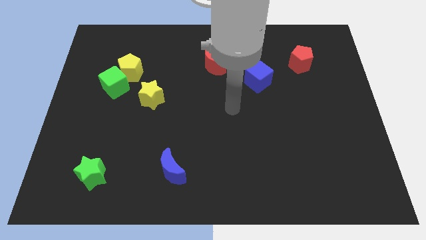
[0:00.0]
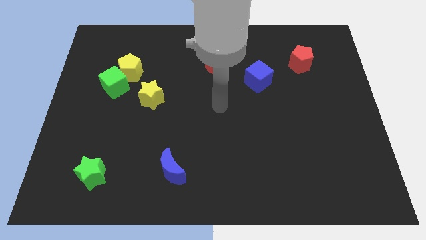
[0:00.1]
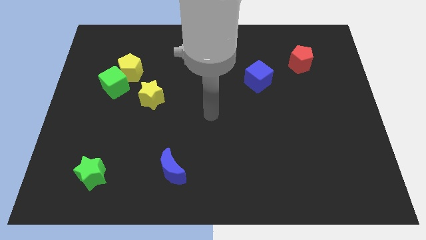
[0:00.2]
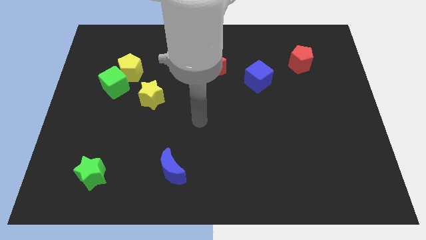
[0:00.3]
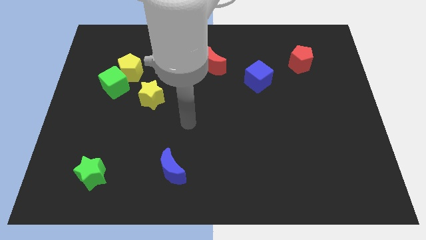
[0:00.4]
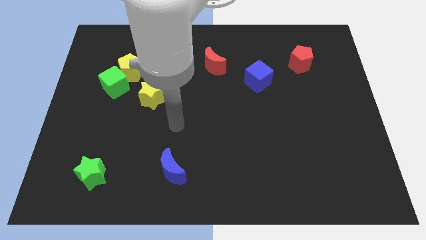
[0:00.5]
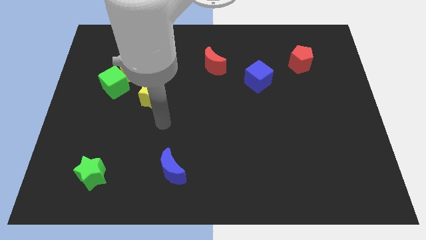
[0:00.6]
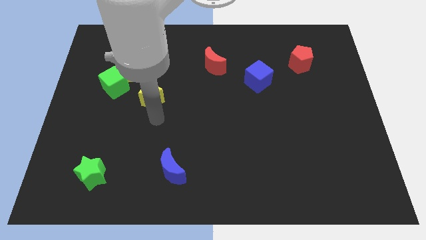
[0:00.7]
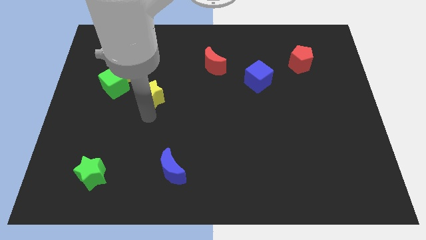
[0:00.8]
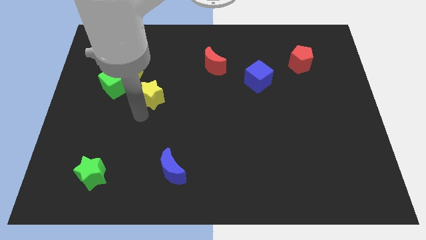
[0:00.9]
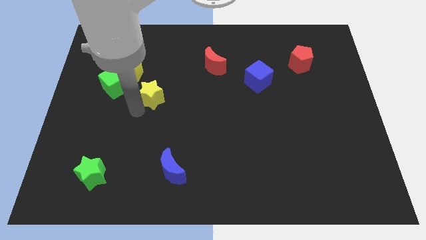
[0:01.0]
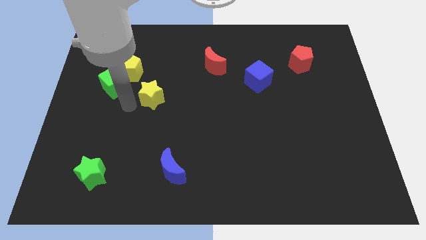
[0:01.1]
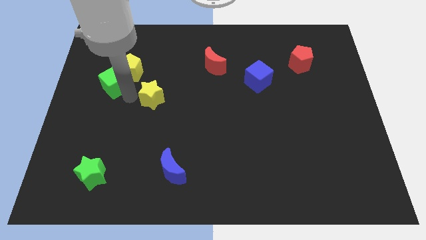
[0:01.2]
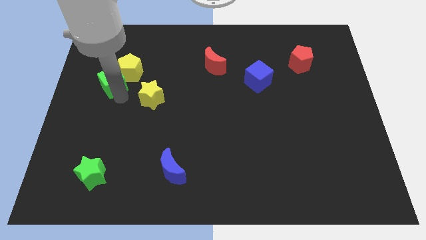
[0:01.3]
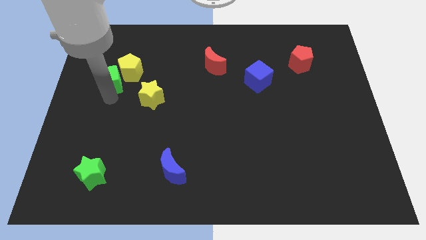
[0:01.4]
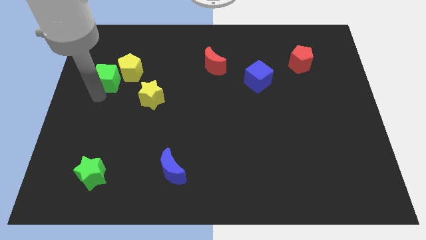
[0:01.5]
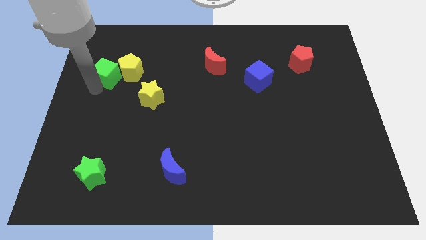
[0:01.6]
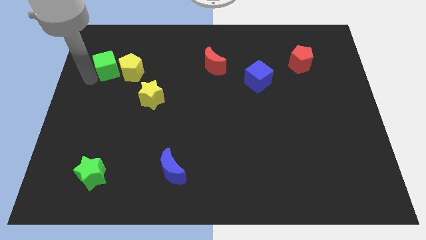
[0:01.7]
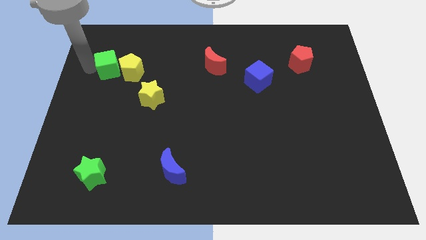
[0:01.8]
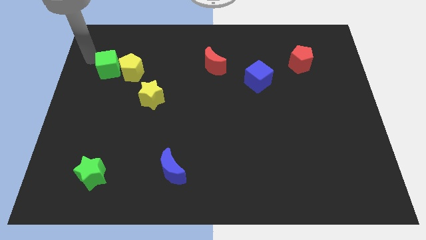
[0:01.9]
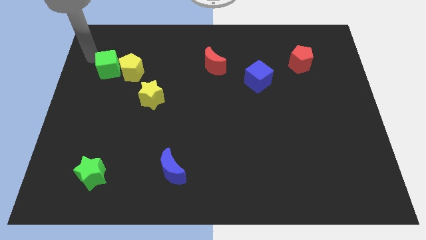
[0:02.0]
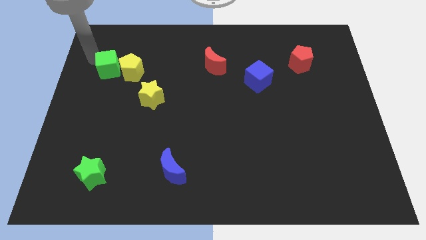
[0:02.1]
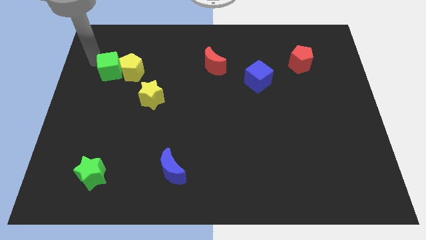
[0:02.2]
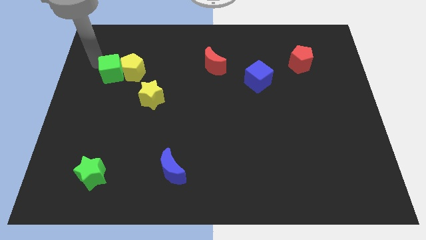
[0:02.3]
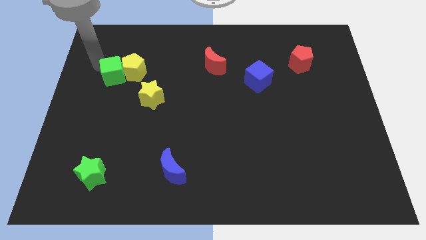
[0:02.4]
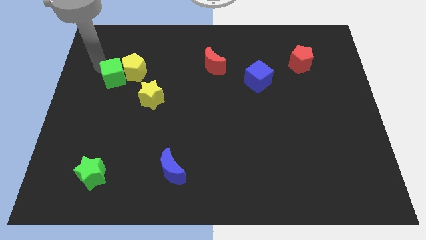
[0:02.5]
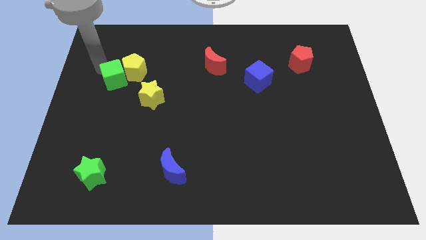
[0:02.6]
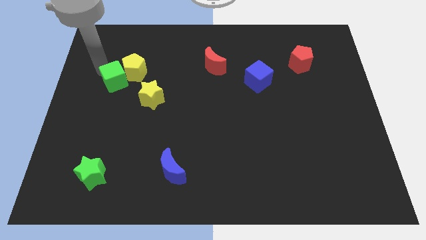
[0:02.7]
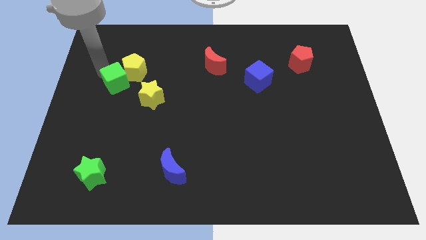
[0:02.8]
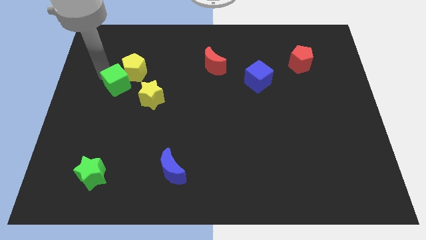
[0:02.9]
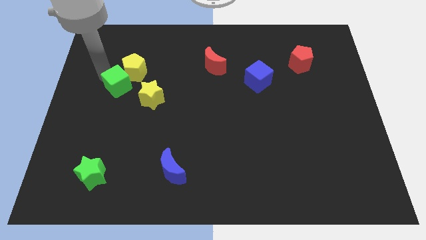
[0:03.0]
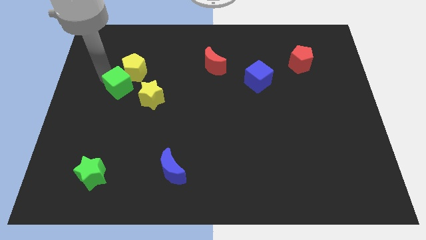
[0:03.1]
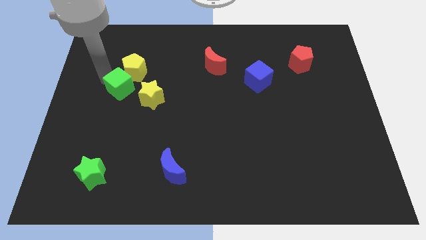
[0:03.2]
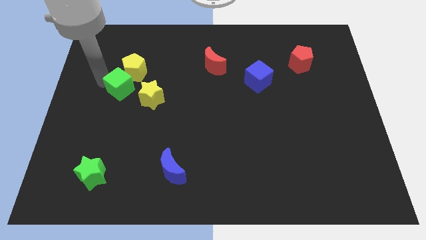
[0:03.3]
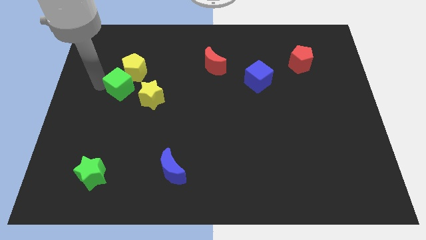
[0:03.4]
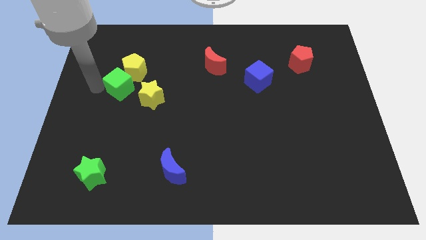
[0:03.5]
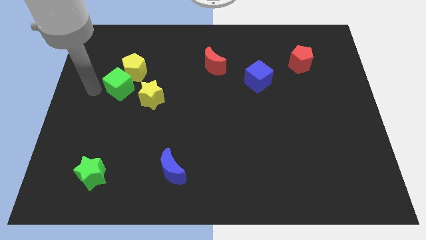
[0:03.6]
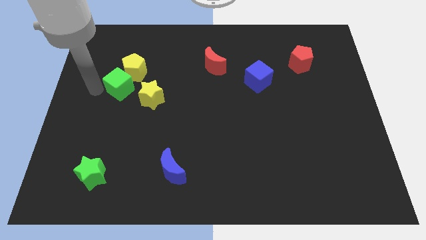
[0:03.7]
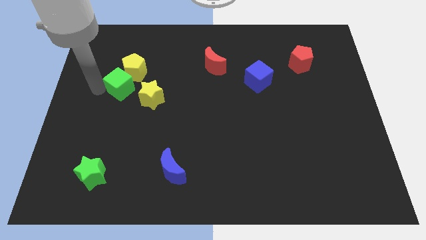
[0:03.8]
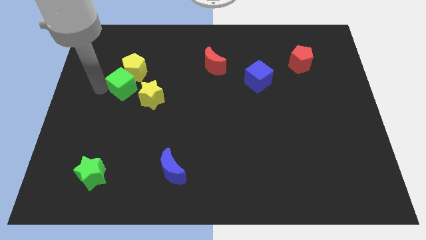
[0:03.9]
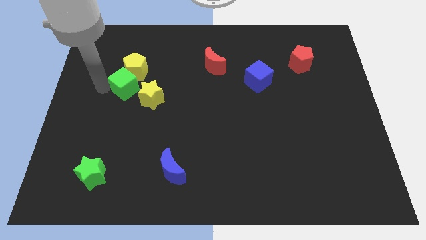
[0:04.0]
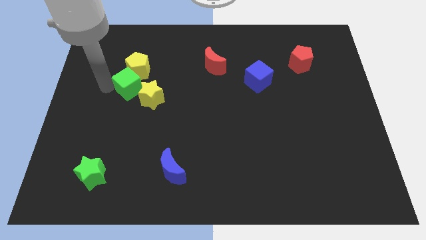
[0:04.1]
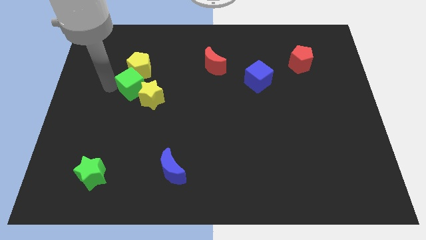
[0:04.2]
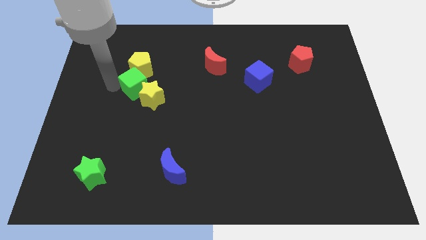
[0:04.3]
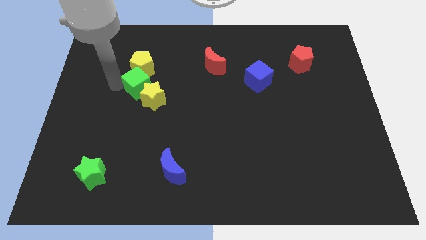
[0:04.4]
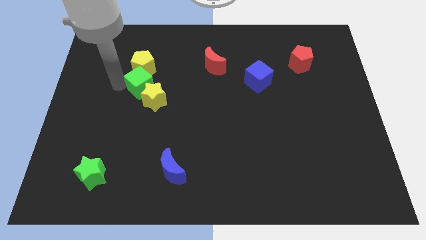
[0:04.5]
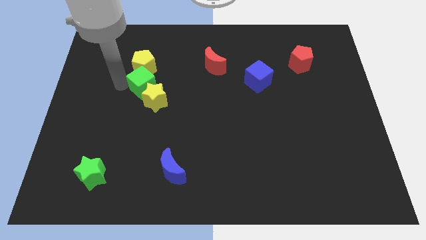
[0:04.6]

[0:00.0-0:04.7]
move the green cube slightly right

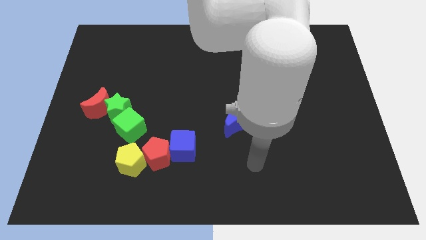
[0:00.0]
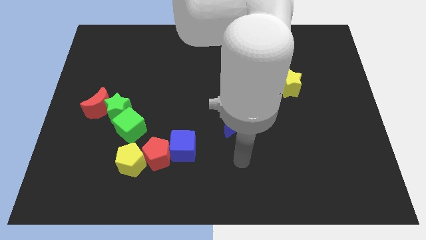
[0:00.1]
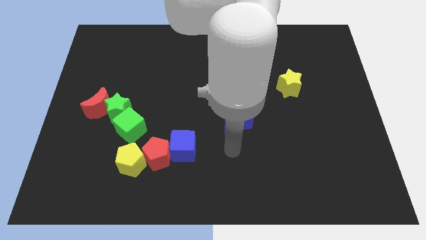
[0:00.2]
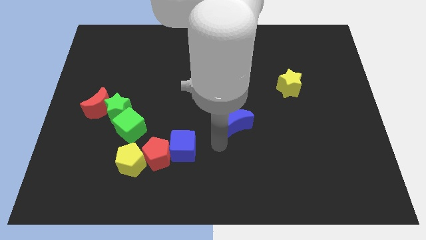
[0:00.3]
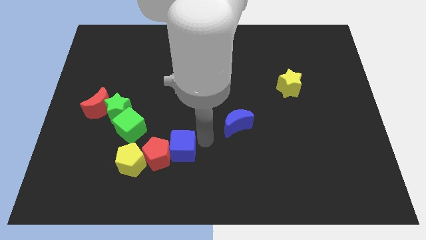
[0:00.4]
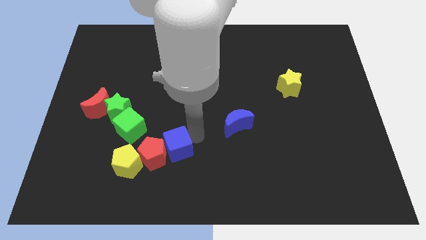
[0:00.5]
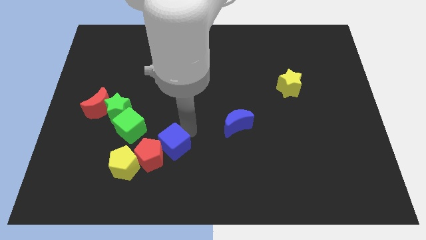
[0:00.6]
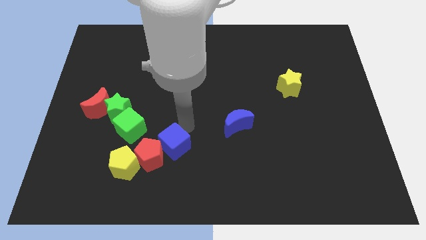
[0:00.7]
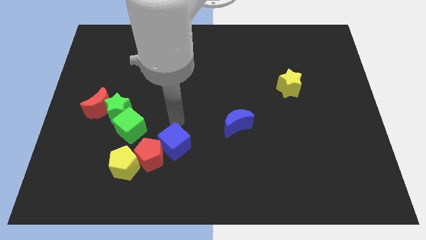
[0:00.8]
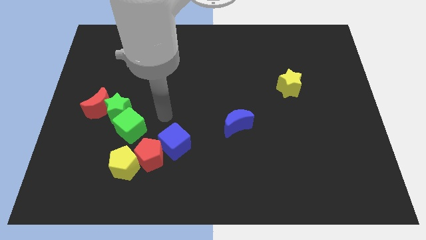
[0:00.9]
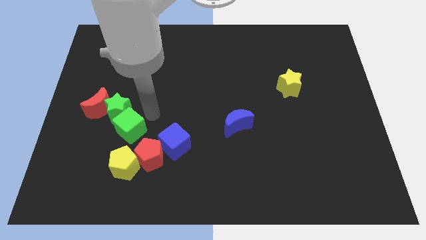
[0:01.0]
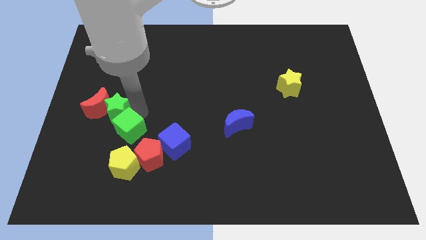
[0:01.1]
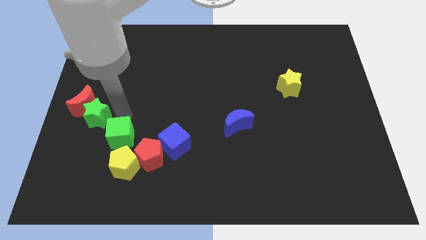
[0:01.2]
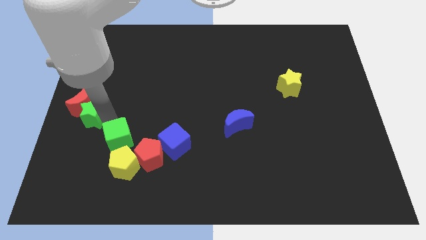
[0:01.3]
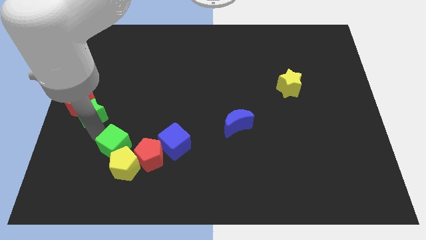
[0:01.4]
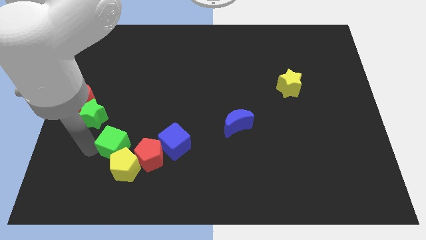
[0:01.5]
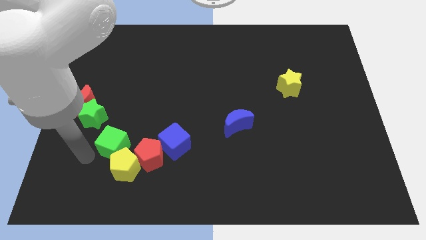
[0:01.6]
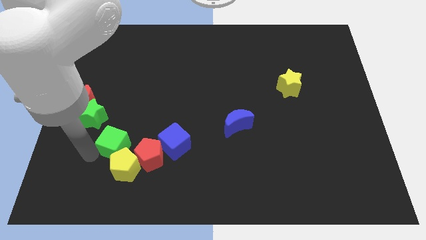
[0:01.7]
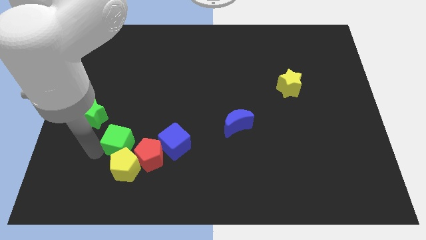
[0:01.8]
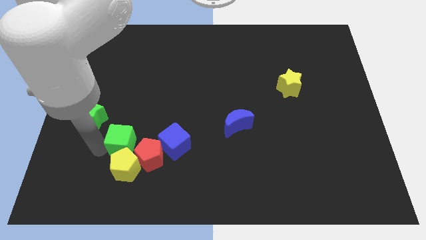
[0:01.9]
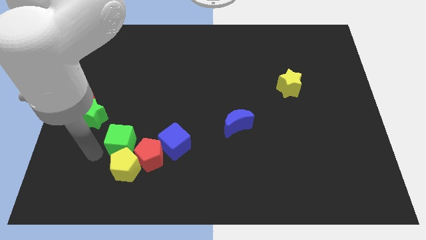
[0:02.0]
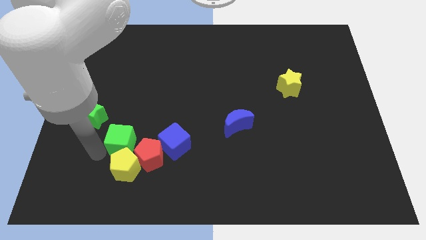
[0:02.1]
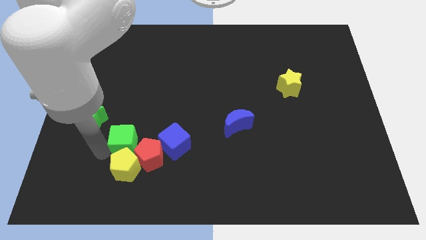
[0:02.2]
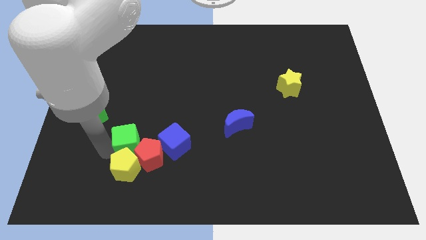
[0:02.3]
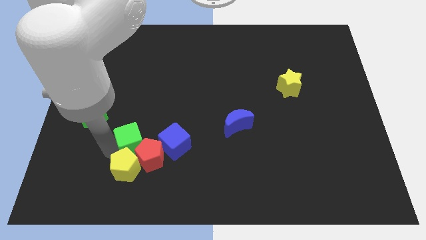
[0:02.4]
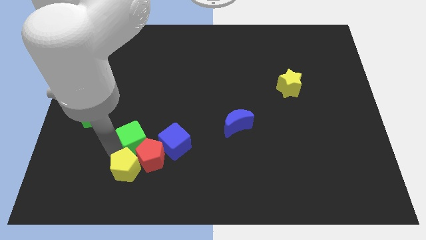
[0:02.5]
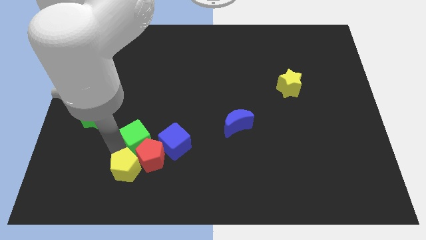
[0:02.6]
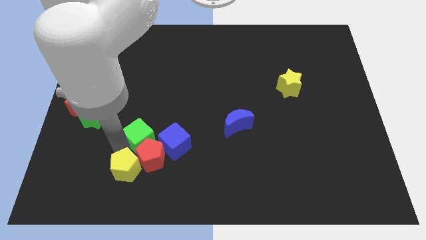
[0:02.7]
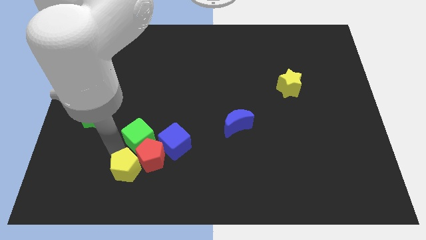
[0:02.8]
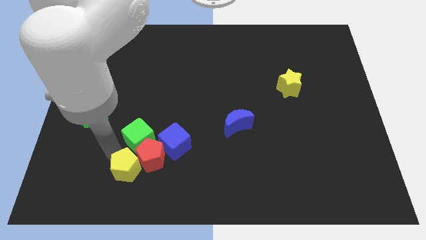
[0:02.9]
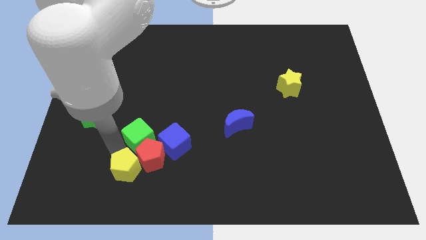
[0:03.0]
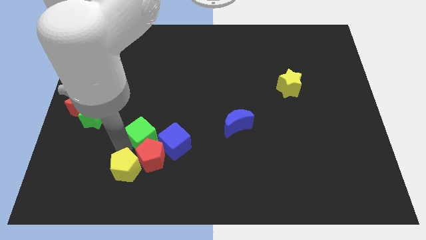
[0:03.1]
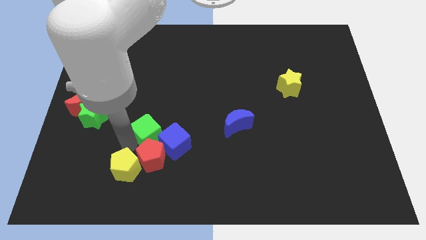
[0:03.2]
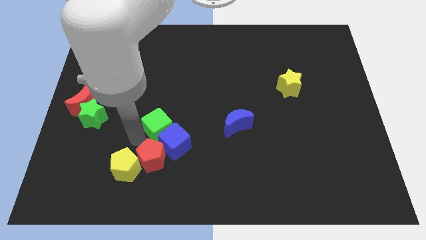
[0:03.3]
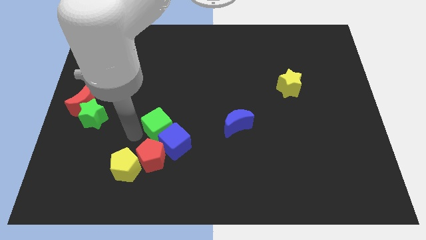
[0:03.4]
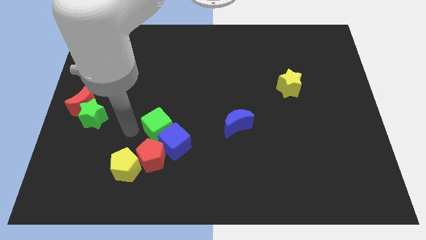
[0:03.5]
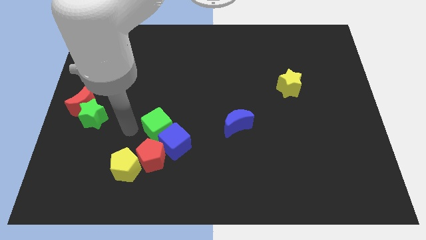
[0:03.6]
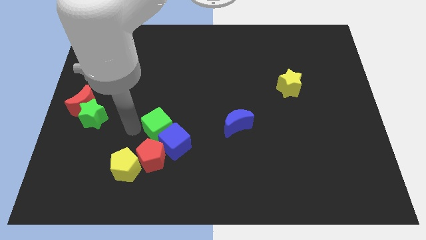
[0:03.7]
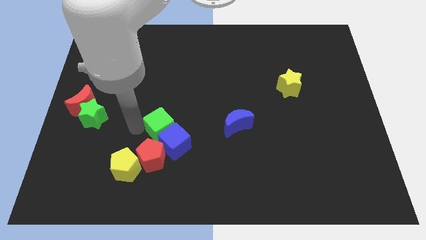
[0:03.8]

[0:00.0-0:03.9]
slightly move the green cube to the right
